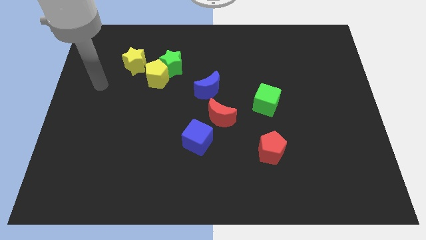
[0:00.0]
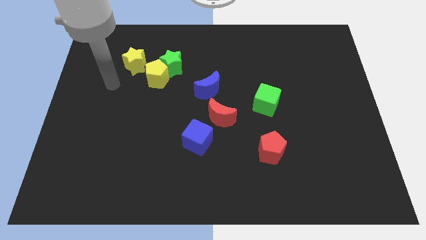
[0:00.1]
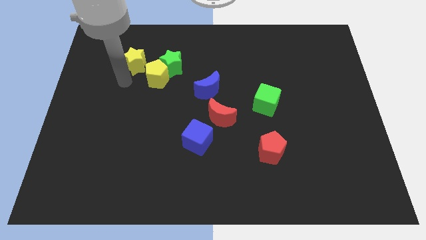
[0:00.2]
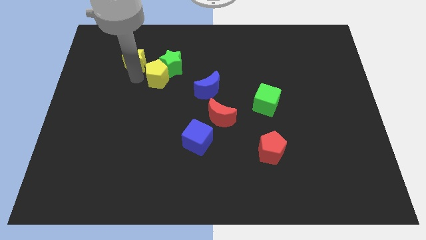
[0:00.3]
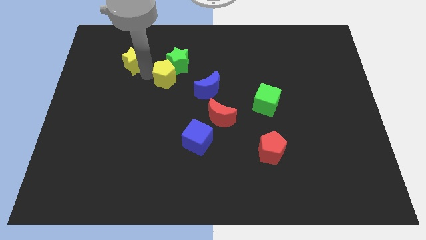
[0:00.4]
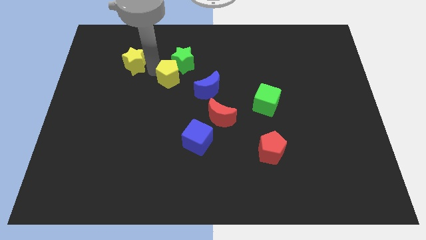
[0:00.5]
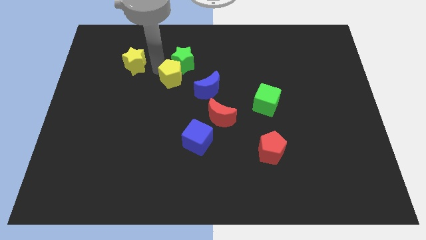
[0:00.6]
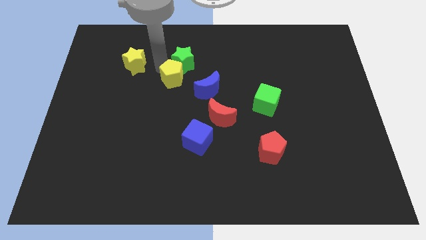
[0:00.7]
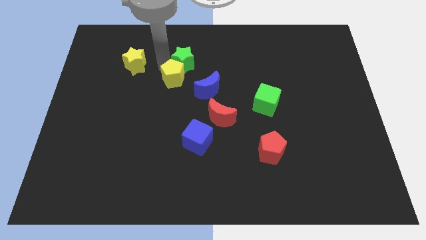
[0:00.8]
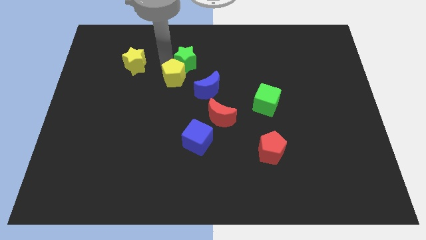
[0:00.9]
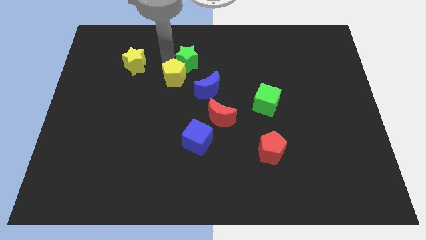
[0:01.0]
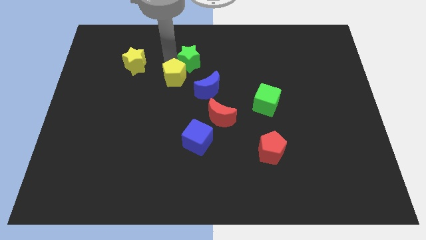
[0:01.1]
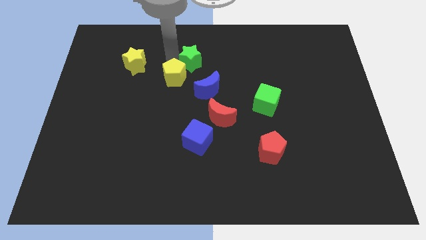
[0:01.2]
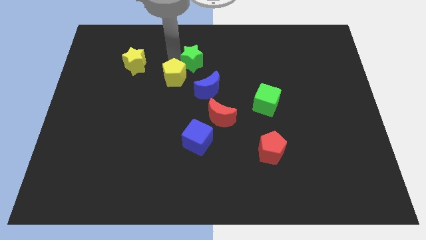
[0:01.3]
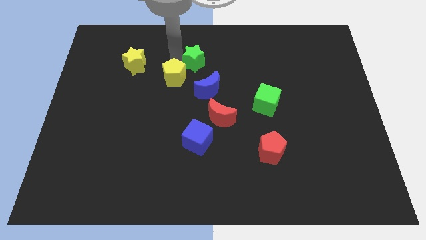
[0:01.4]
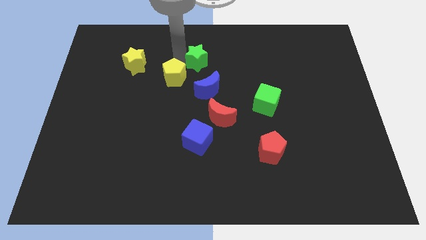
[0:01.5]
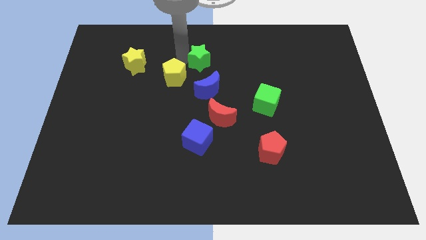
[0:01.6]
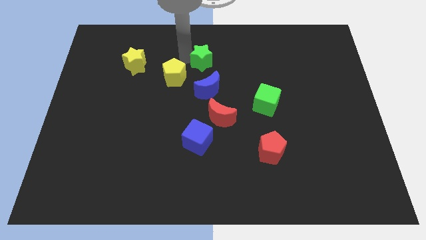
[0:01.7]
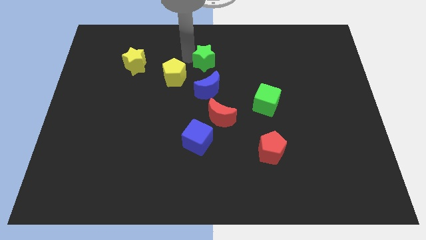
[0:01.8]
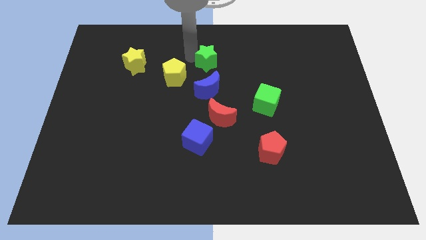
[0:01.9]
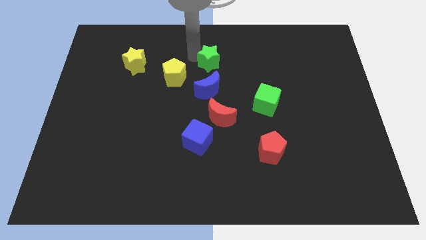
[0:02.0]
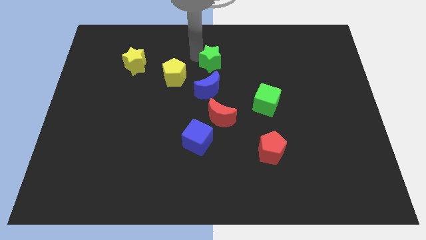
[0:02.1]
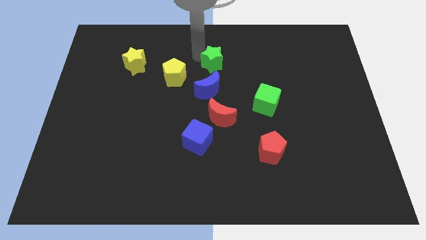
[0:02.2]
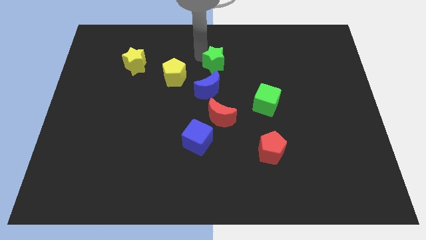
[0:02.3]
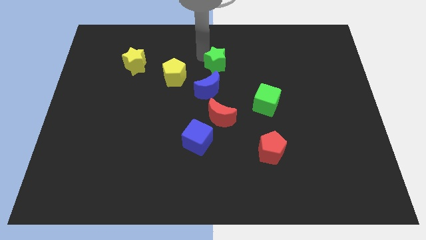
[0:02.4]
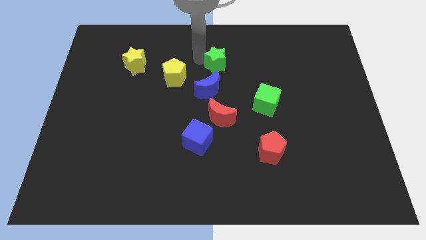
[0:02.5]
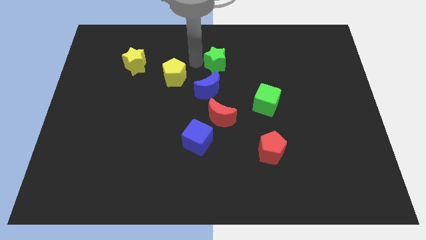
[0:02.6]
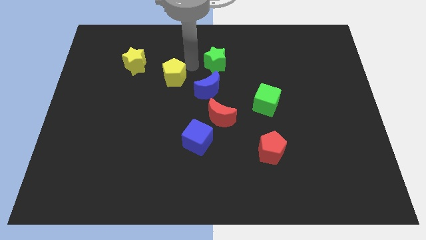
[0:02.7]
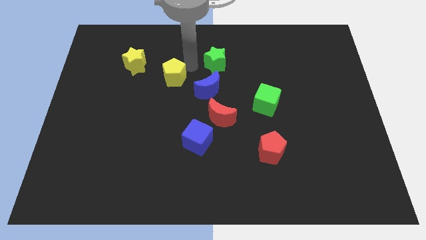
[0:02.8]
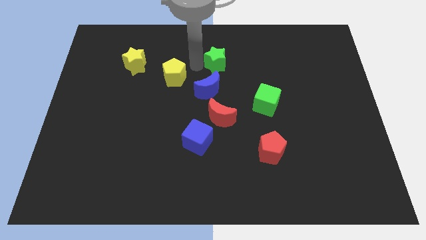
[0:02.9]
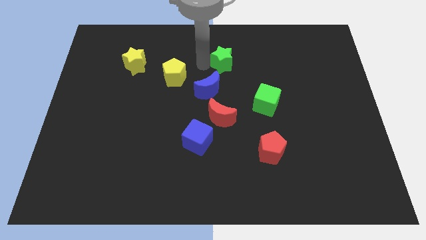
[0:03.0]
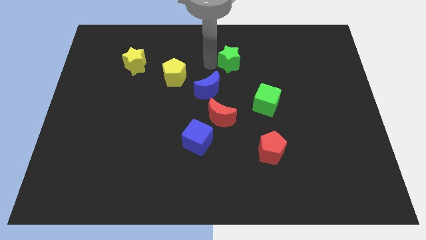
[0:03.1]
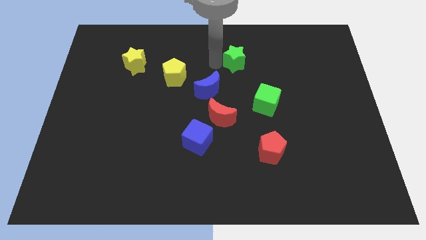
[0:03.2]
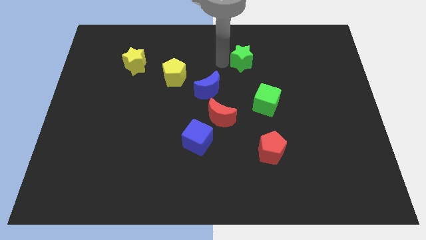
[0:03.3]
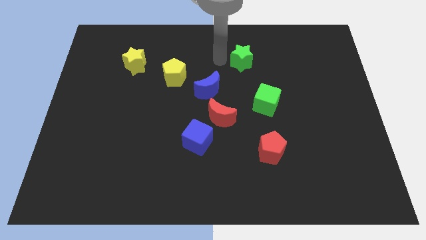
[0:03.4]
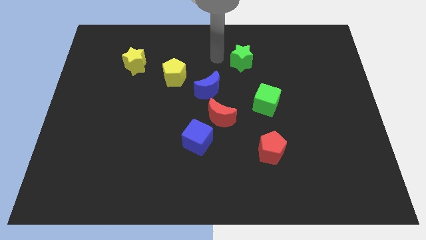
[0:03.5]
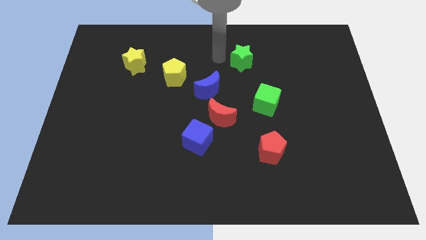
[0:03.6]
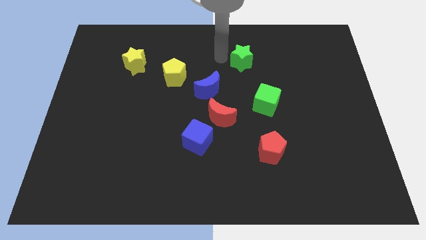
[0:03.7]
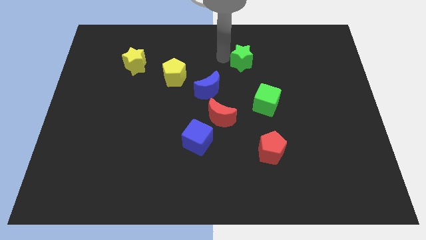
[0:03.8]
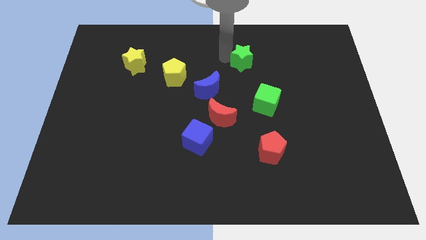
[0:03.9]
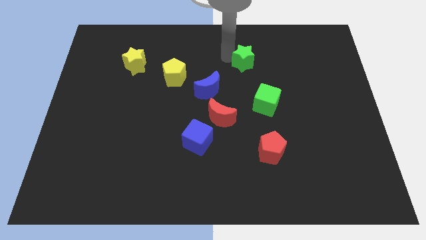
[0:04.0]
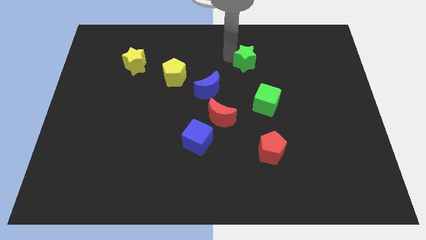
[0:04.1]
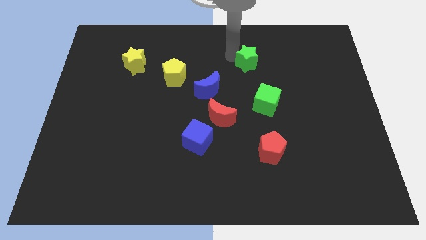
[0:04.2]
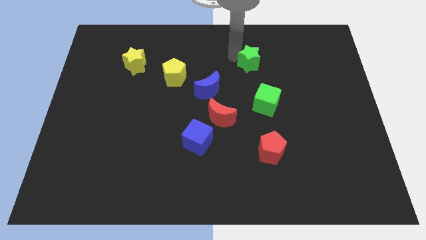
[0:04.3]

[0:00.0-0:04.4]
move the green star right

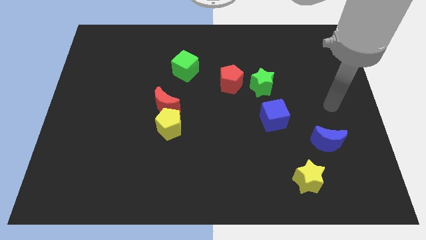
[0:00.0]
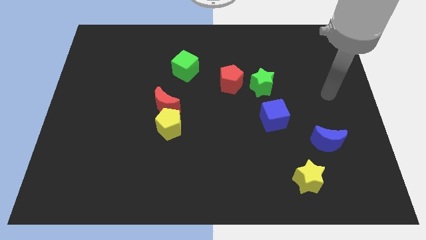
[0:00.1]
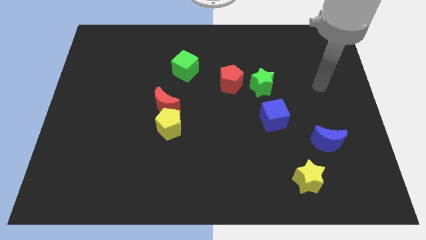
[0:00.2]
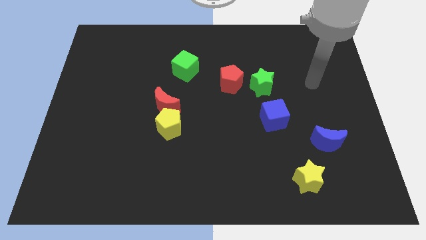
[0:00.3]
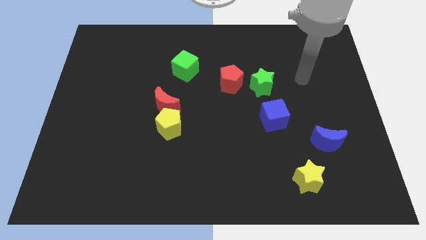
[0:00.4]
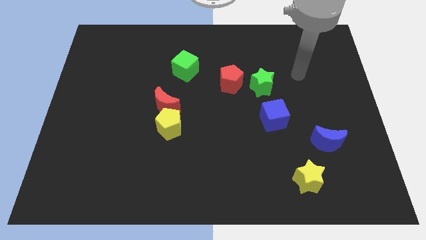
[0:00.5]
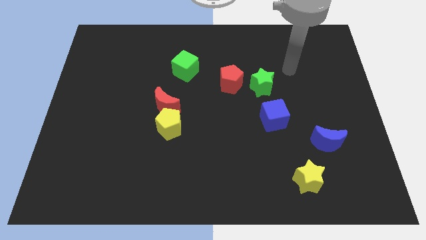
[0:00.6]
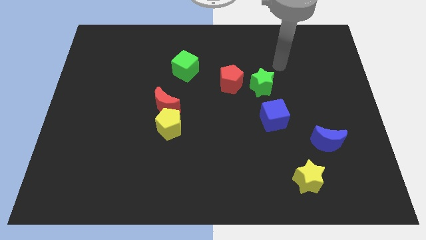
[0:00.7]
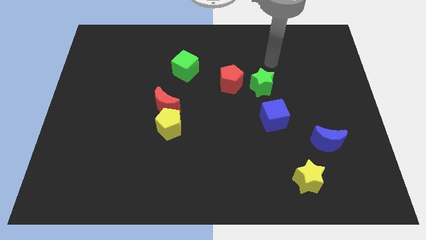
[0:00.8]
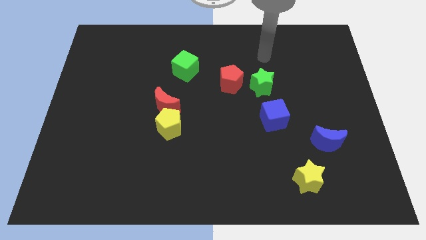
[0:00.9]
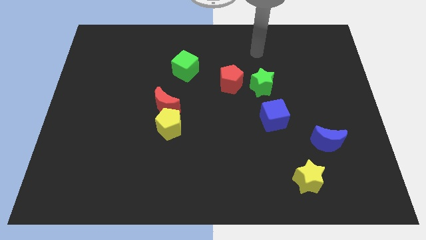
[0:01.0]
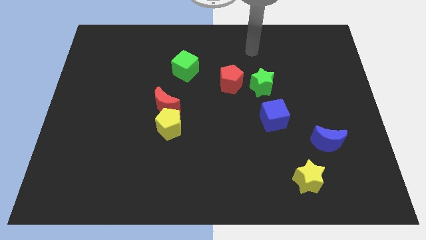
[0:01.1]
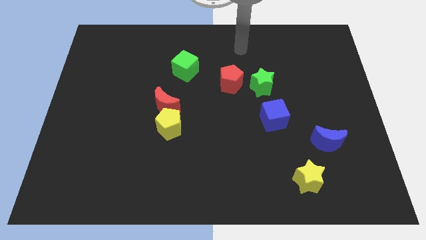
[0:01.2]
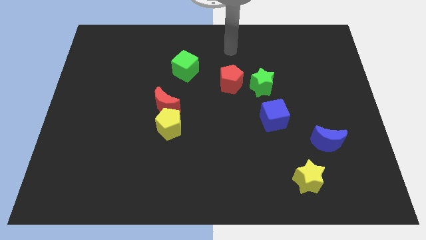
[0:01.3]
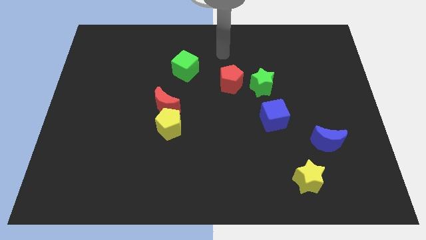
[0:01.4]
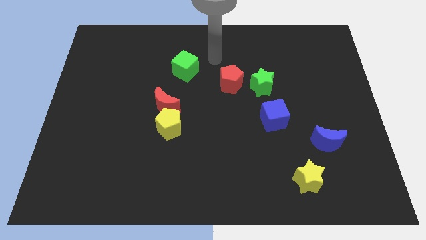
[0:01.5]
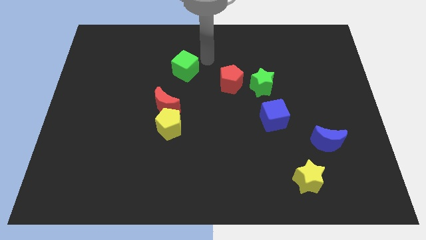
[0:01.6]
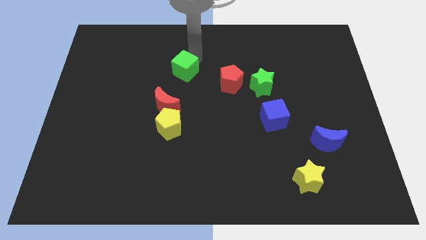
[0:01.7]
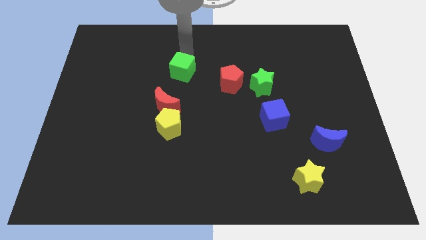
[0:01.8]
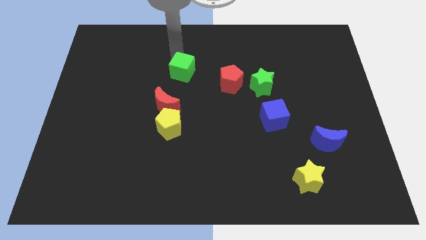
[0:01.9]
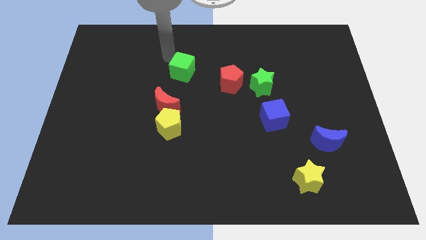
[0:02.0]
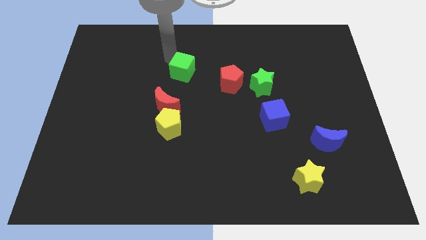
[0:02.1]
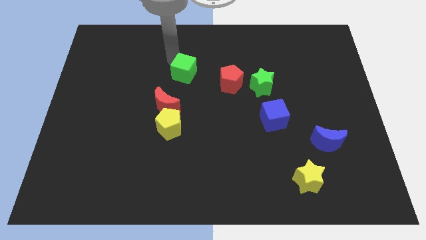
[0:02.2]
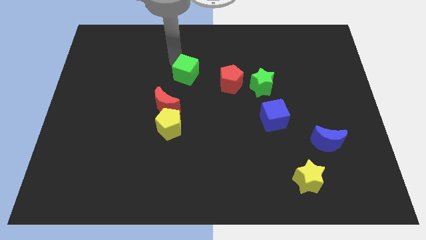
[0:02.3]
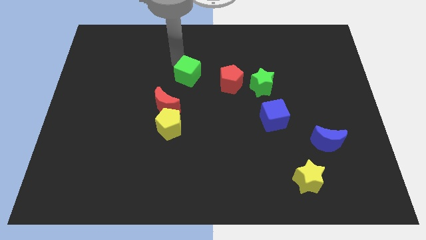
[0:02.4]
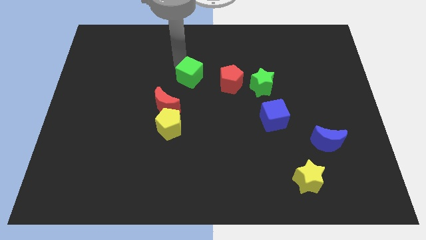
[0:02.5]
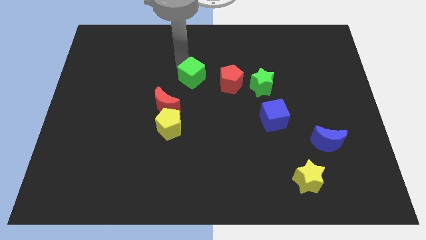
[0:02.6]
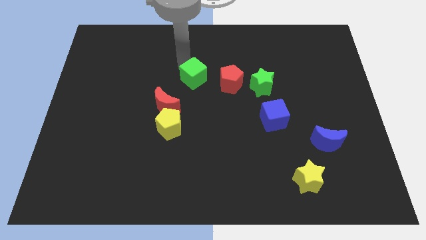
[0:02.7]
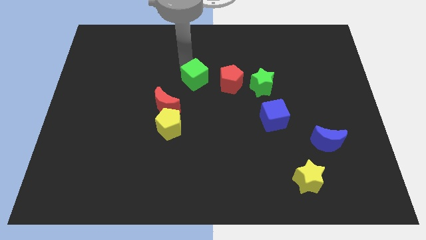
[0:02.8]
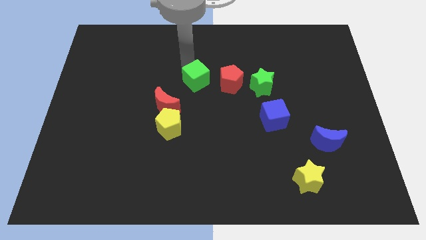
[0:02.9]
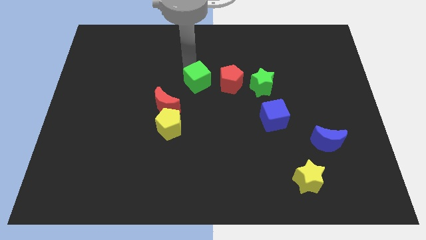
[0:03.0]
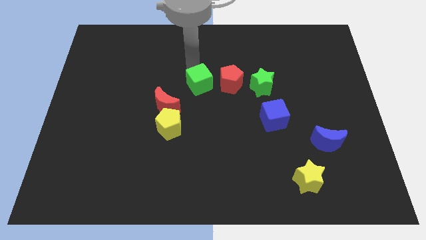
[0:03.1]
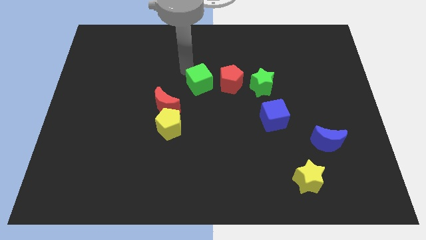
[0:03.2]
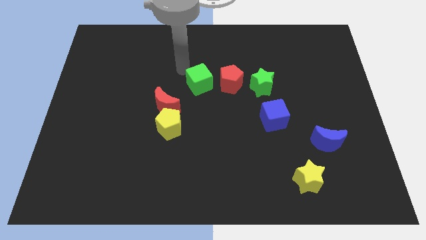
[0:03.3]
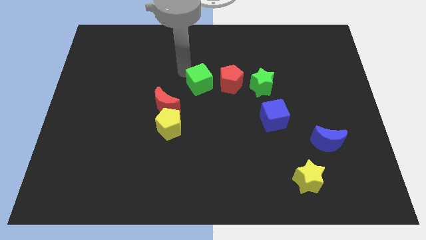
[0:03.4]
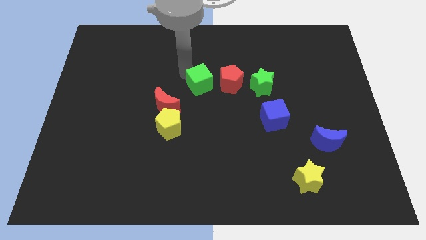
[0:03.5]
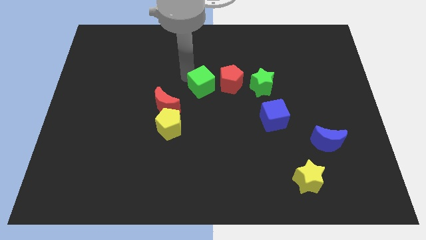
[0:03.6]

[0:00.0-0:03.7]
slightly move the green cube diagonally downwards and right
